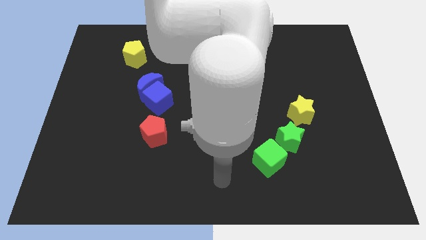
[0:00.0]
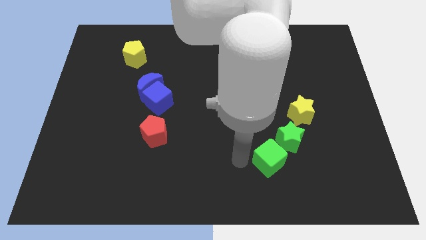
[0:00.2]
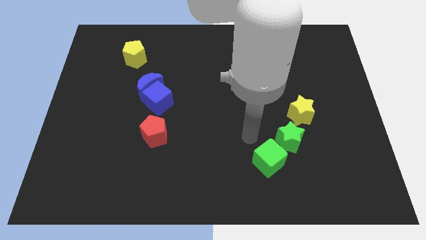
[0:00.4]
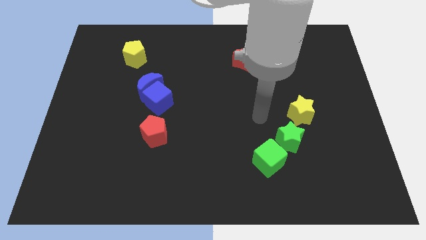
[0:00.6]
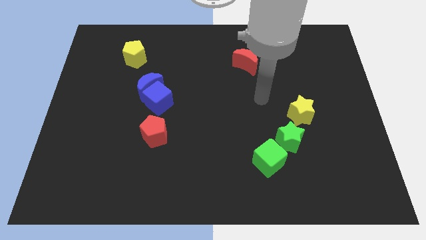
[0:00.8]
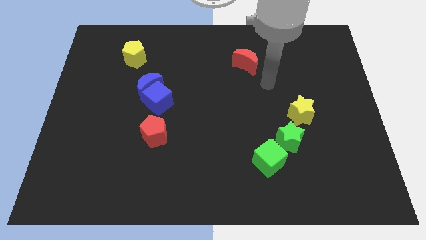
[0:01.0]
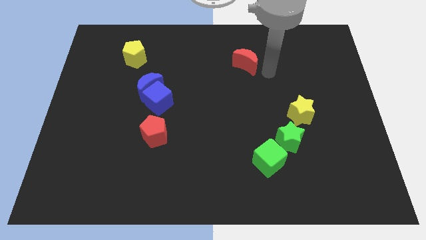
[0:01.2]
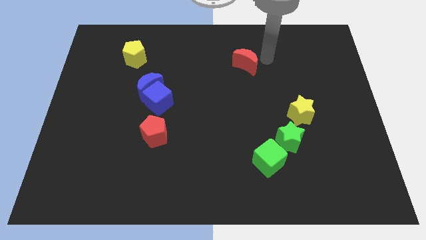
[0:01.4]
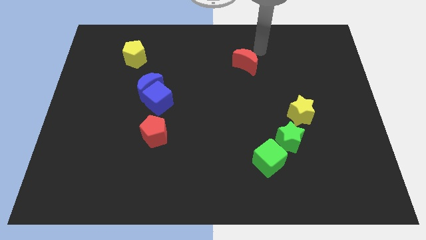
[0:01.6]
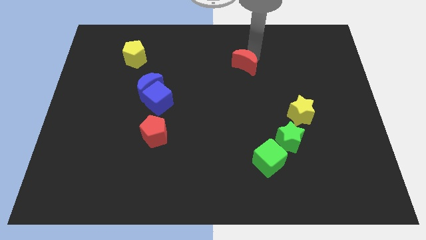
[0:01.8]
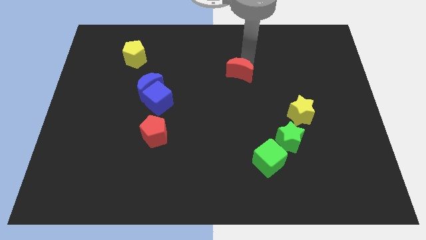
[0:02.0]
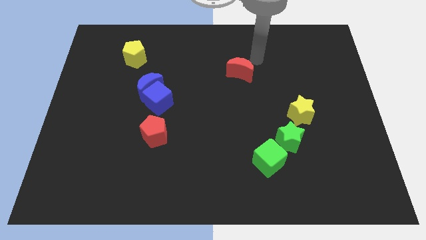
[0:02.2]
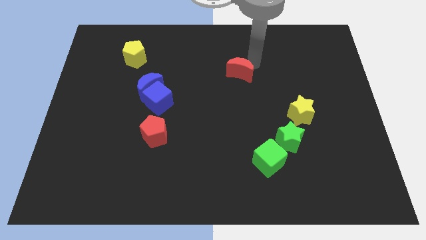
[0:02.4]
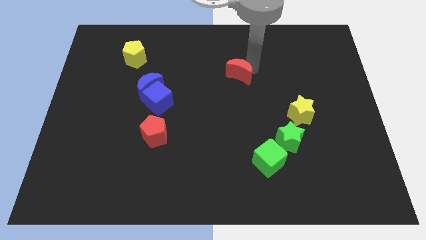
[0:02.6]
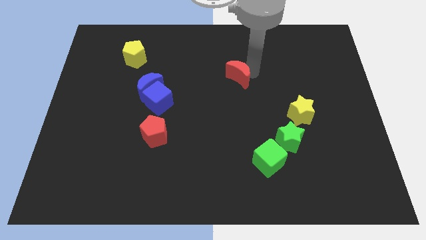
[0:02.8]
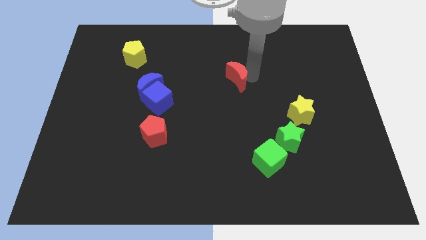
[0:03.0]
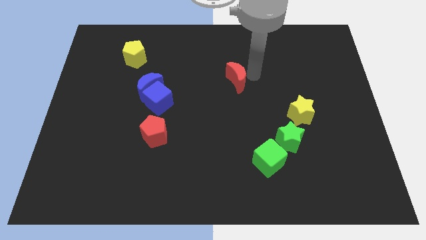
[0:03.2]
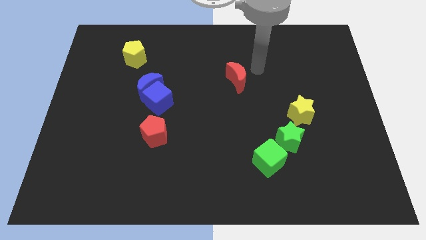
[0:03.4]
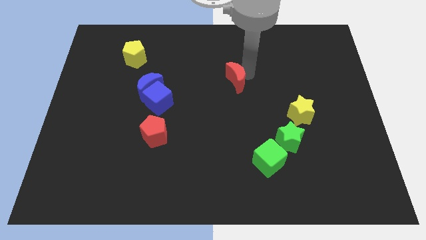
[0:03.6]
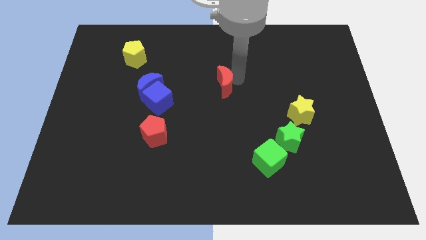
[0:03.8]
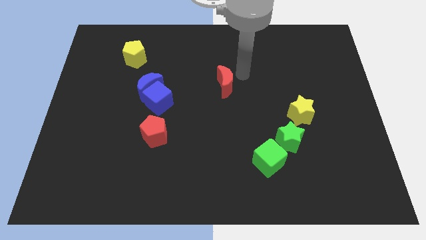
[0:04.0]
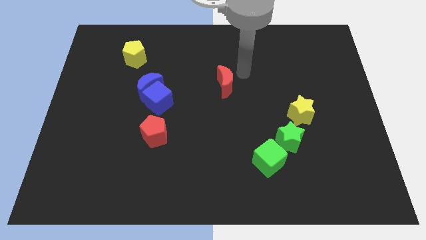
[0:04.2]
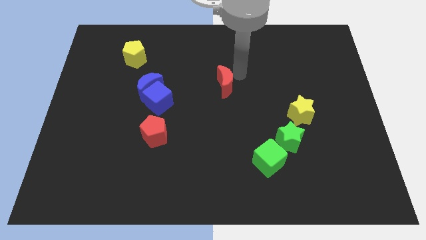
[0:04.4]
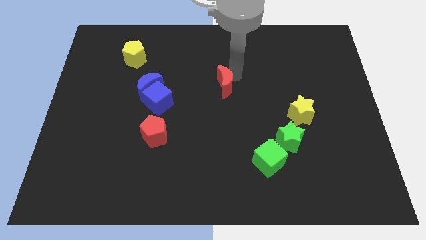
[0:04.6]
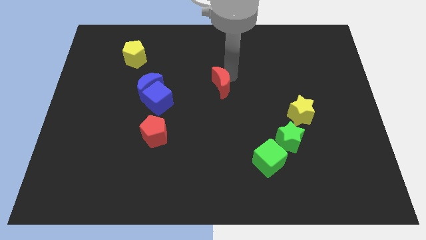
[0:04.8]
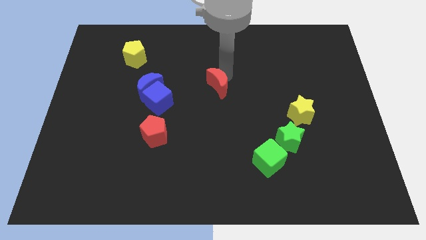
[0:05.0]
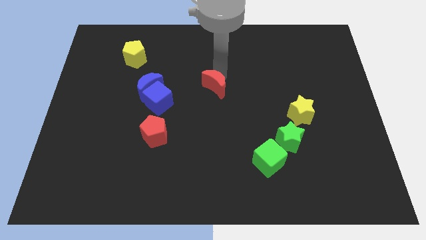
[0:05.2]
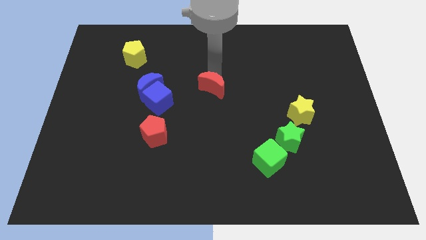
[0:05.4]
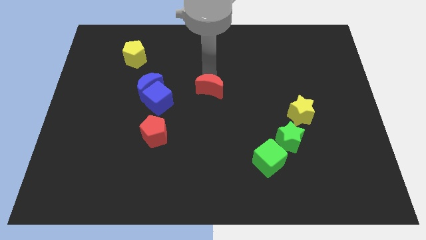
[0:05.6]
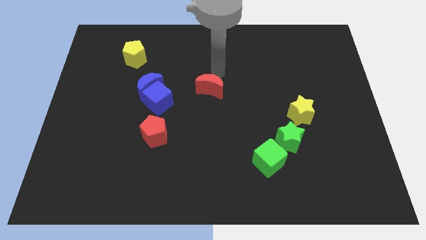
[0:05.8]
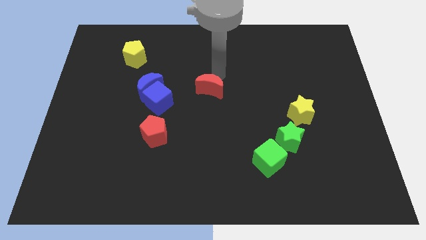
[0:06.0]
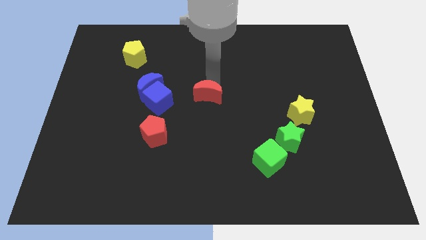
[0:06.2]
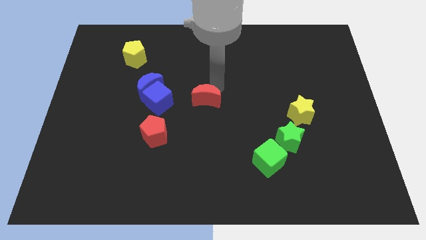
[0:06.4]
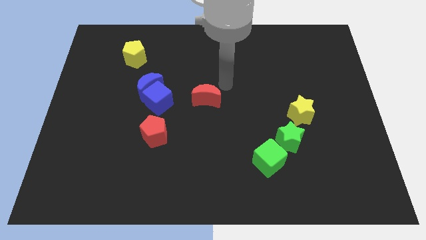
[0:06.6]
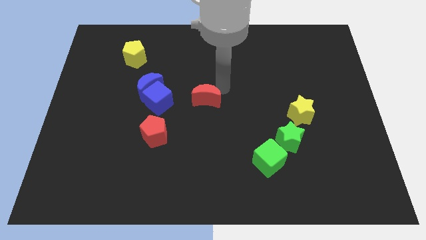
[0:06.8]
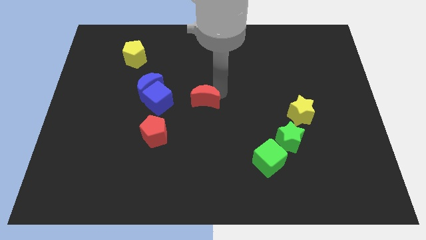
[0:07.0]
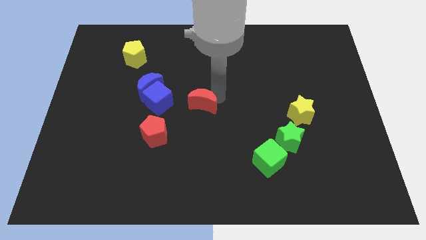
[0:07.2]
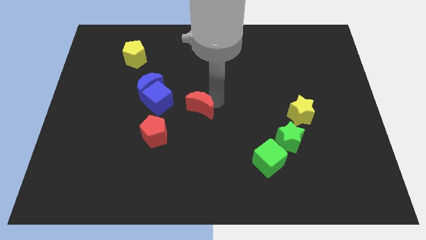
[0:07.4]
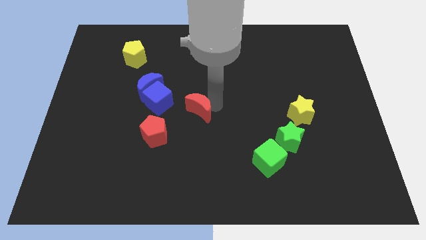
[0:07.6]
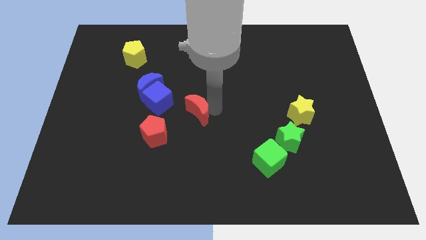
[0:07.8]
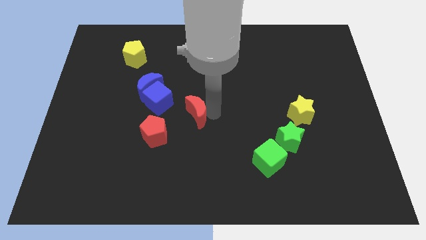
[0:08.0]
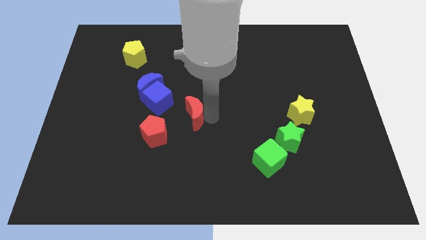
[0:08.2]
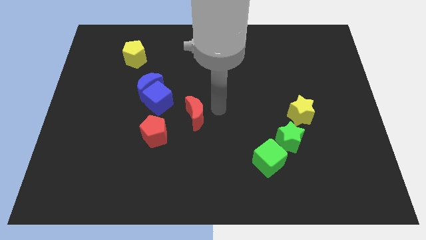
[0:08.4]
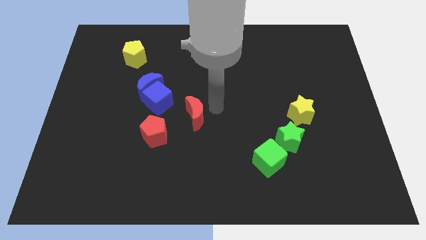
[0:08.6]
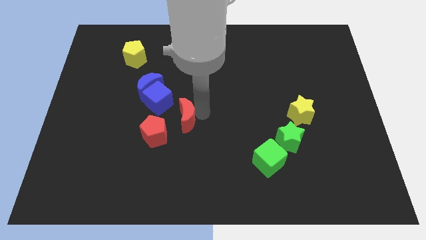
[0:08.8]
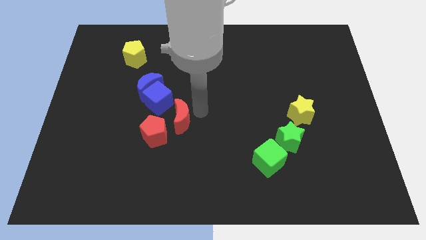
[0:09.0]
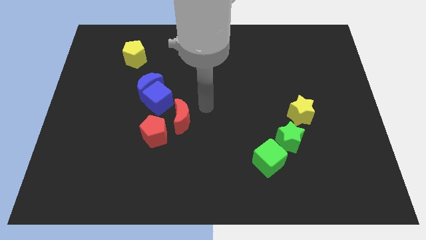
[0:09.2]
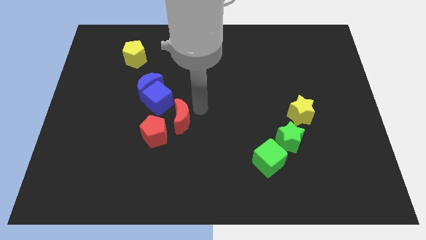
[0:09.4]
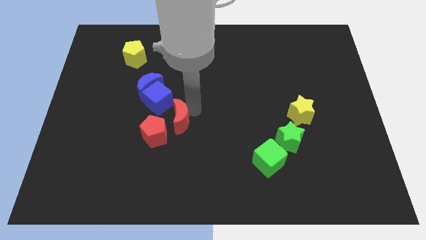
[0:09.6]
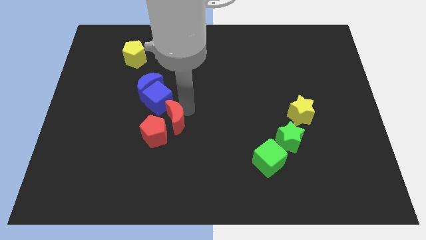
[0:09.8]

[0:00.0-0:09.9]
slide the red moon towards the red pentagon

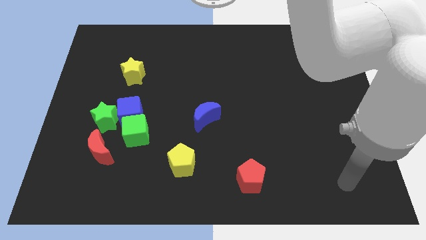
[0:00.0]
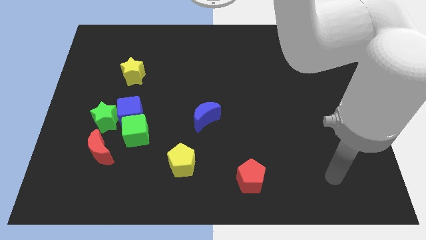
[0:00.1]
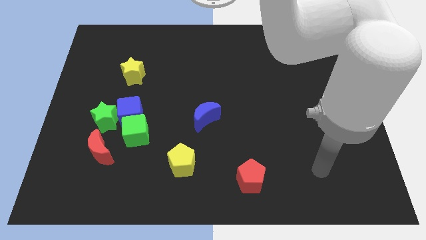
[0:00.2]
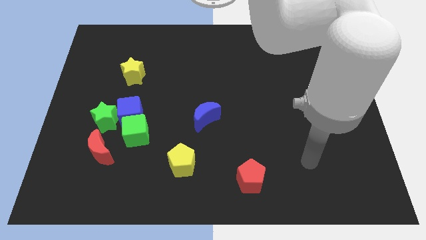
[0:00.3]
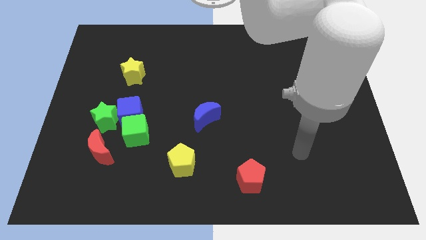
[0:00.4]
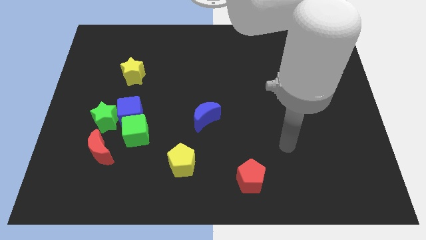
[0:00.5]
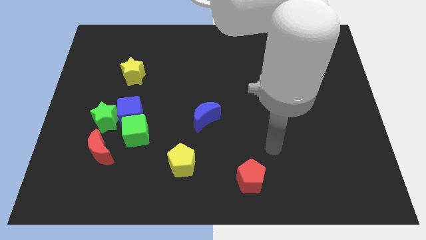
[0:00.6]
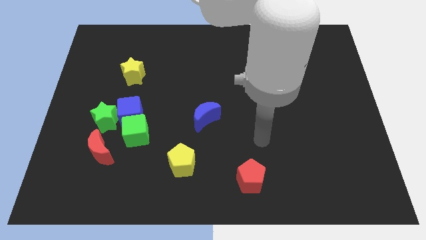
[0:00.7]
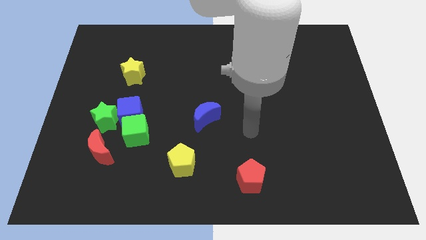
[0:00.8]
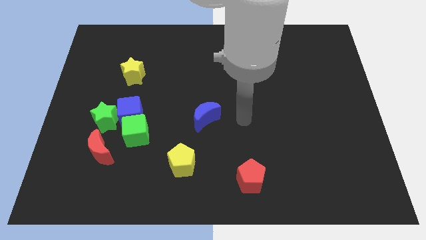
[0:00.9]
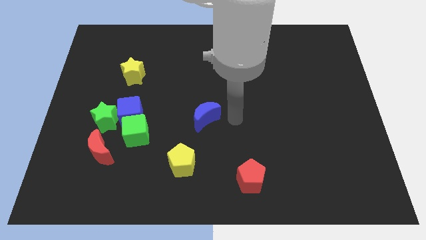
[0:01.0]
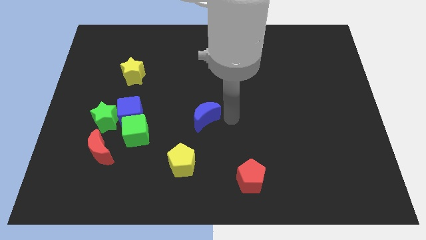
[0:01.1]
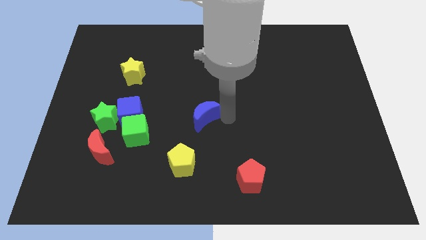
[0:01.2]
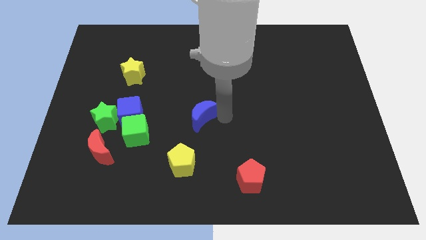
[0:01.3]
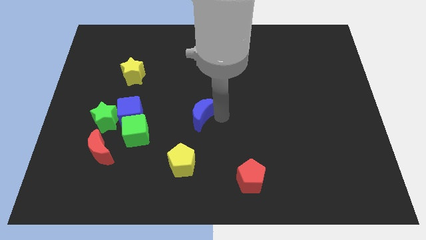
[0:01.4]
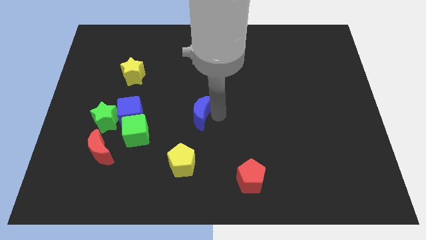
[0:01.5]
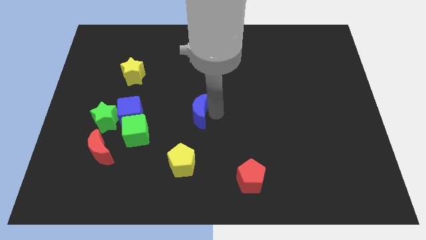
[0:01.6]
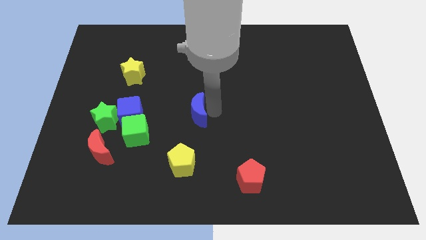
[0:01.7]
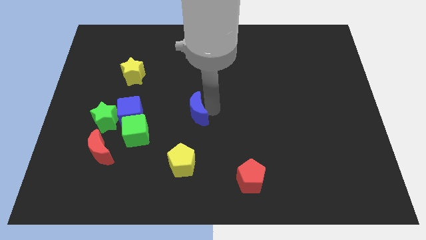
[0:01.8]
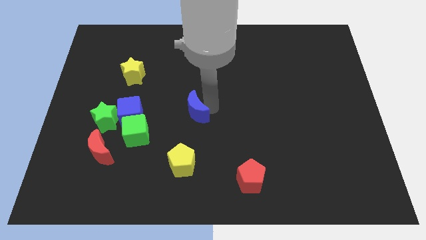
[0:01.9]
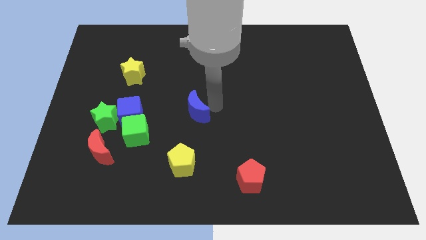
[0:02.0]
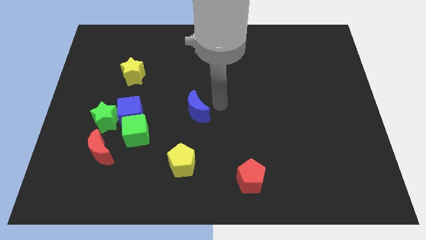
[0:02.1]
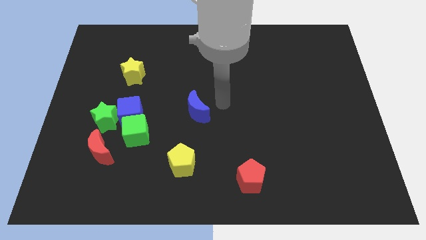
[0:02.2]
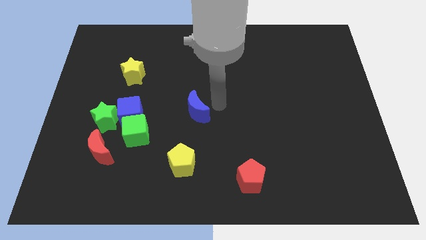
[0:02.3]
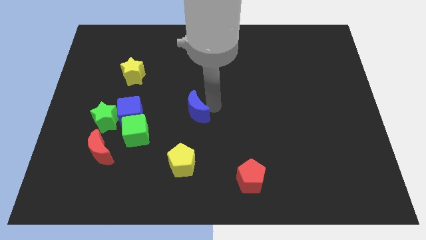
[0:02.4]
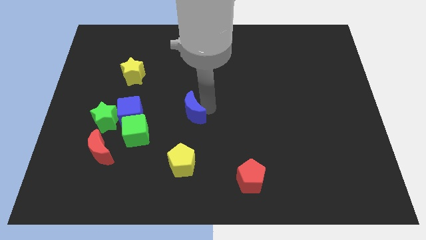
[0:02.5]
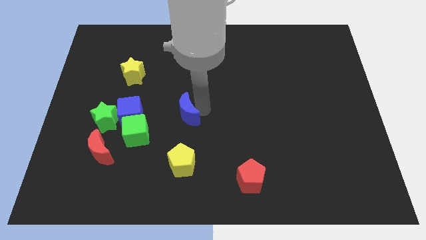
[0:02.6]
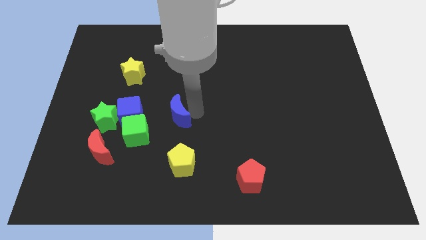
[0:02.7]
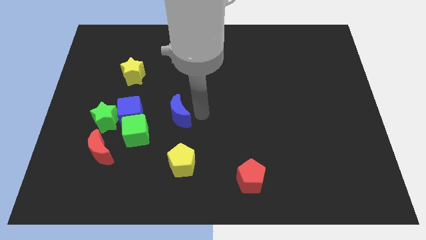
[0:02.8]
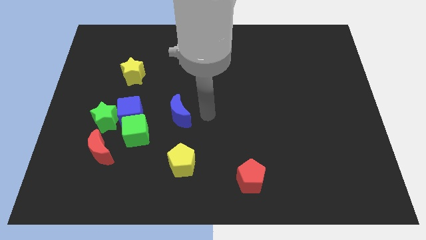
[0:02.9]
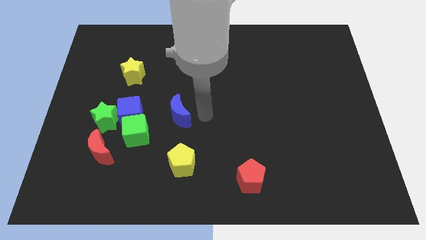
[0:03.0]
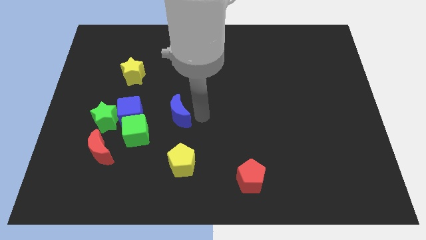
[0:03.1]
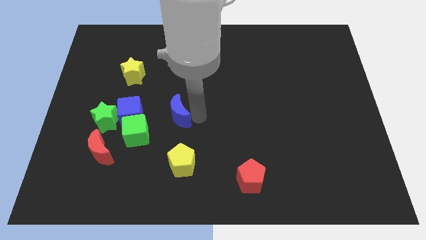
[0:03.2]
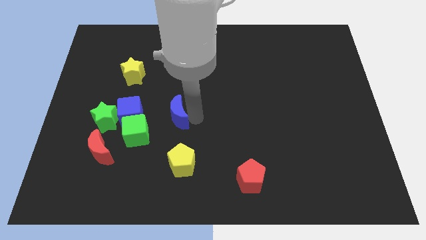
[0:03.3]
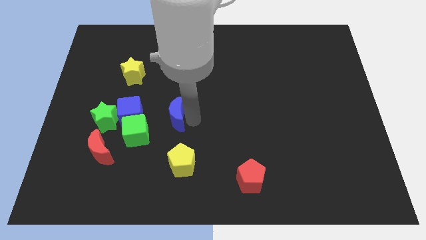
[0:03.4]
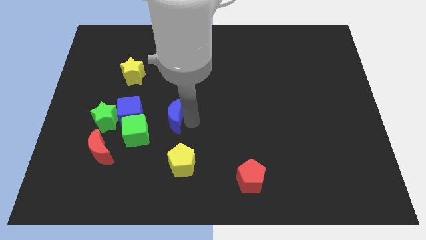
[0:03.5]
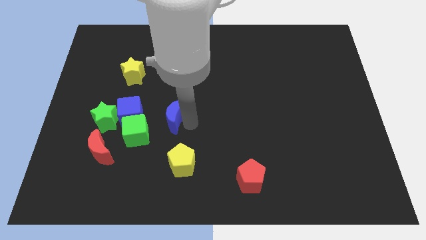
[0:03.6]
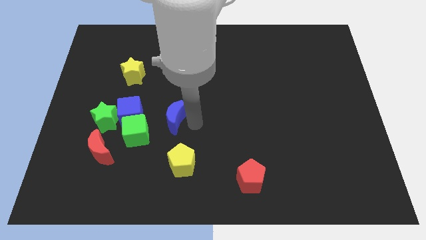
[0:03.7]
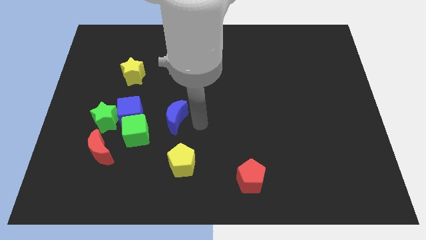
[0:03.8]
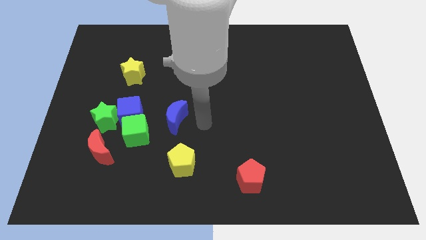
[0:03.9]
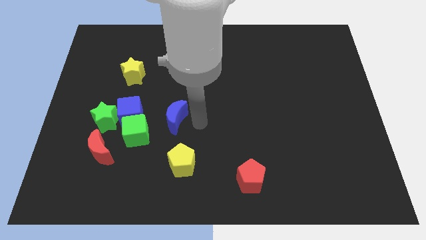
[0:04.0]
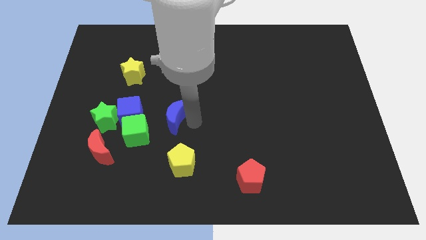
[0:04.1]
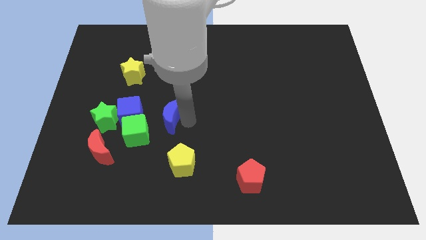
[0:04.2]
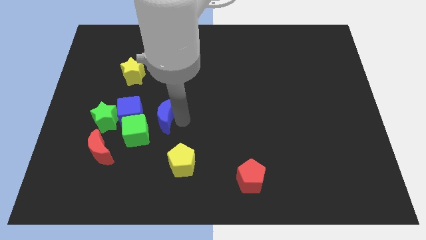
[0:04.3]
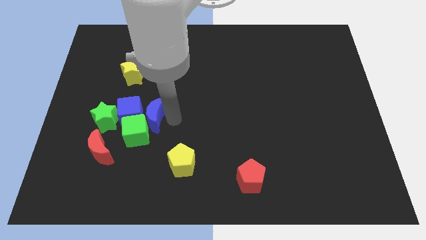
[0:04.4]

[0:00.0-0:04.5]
push the blue moon close to the blue cube
